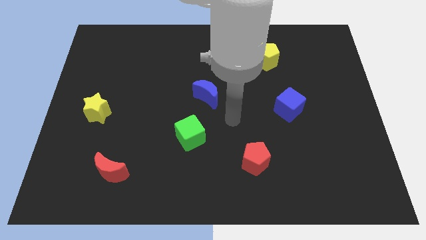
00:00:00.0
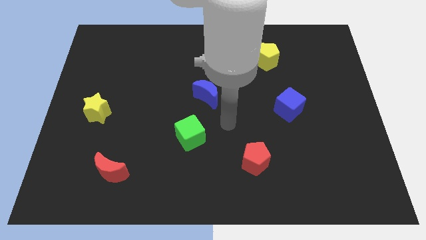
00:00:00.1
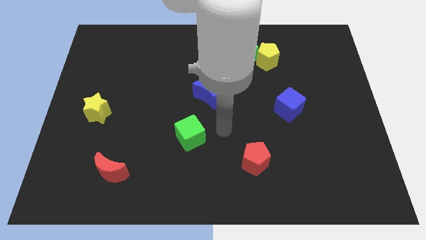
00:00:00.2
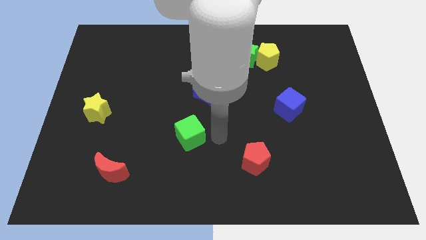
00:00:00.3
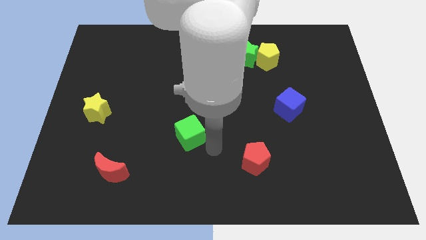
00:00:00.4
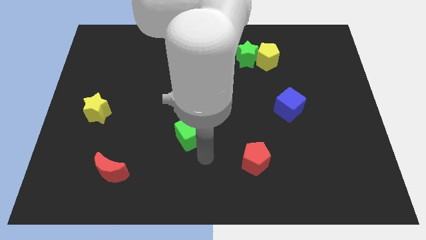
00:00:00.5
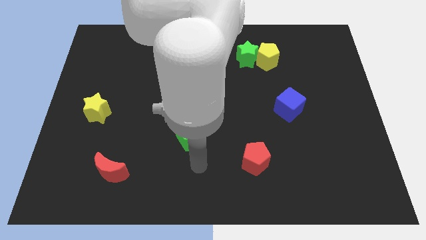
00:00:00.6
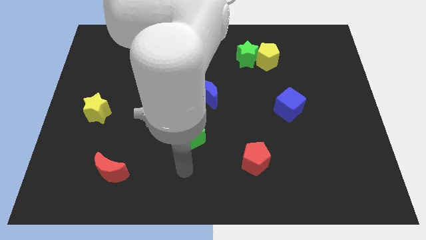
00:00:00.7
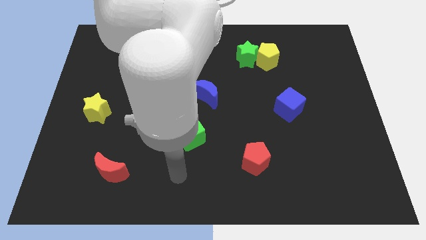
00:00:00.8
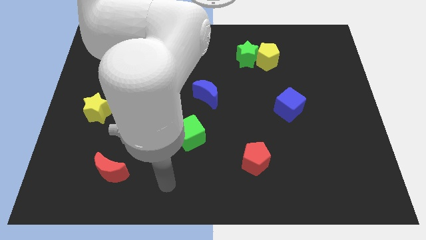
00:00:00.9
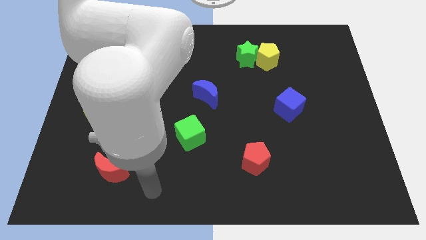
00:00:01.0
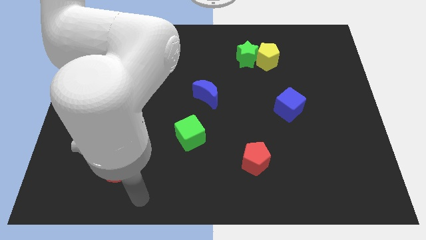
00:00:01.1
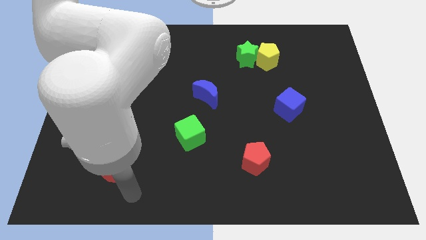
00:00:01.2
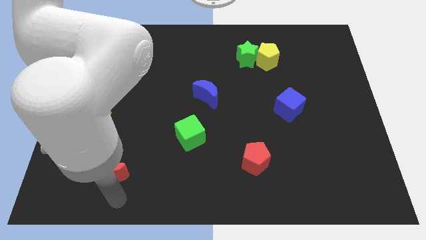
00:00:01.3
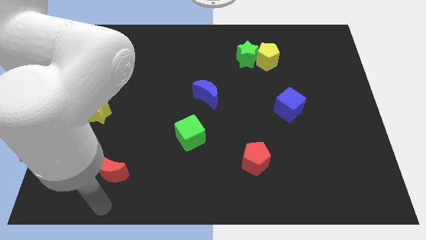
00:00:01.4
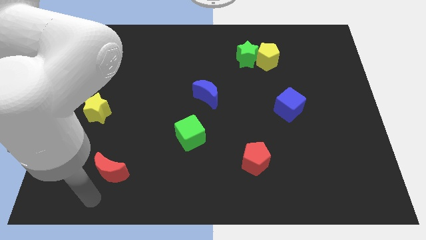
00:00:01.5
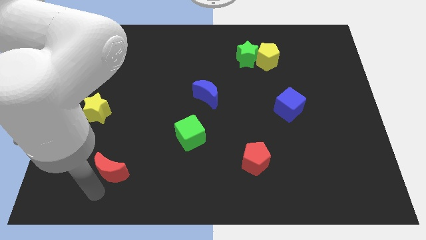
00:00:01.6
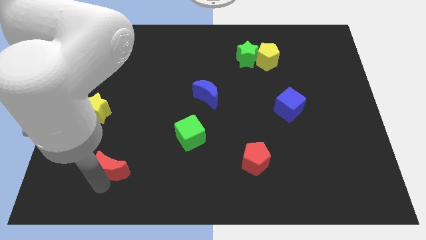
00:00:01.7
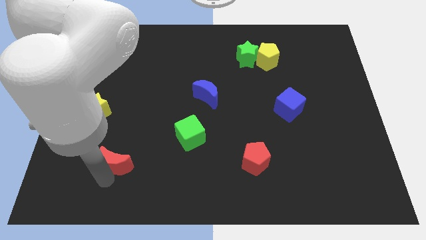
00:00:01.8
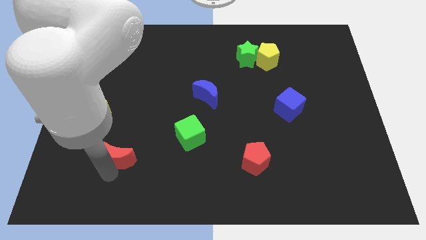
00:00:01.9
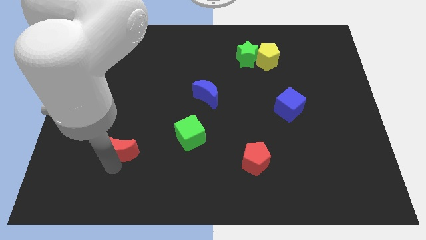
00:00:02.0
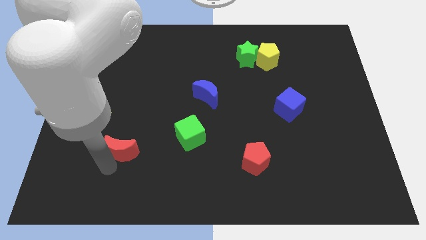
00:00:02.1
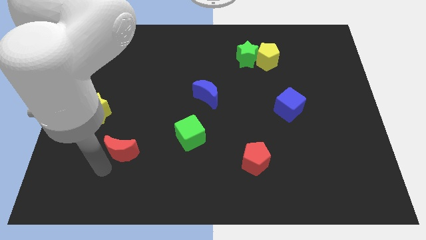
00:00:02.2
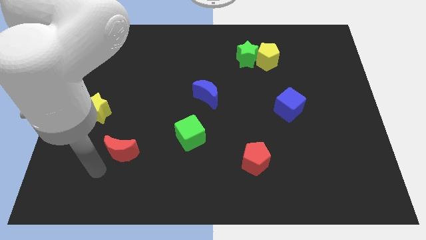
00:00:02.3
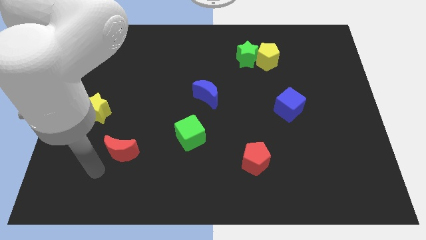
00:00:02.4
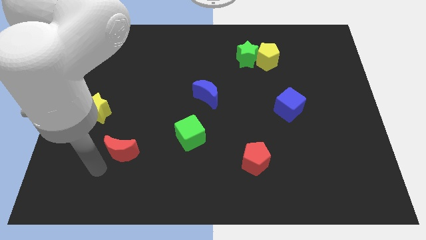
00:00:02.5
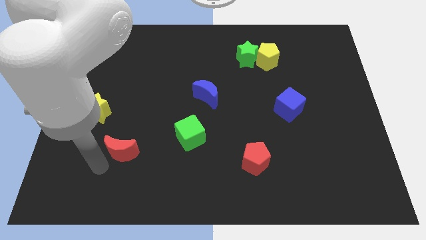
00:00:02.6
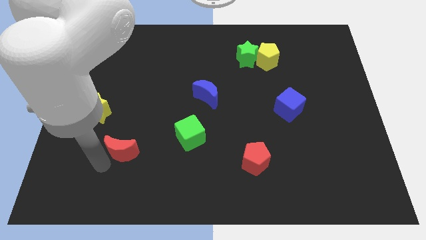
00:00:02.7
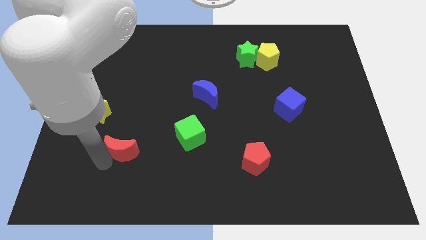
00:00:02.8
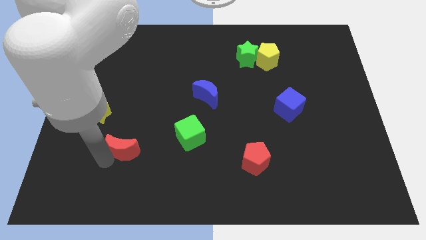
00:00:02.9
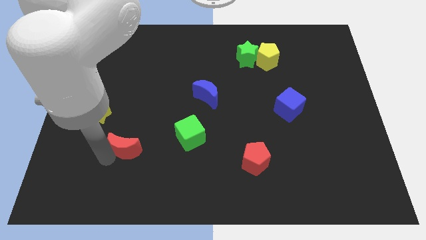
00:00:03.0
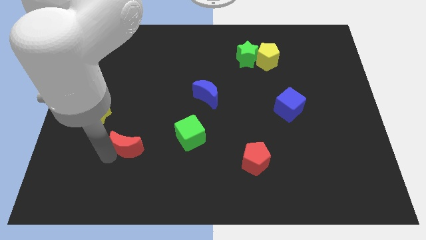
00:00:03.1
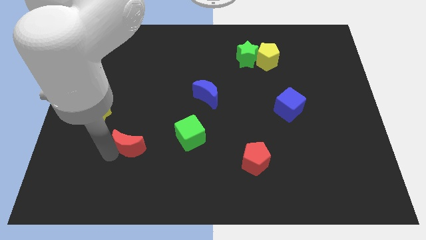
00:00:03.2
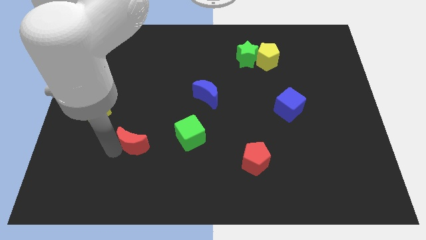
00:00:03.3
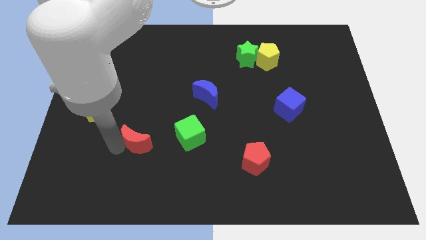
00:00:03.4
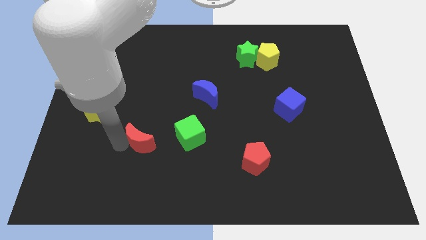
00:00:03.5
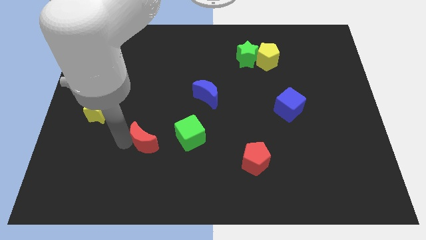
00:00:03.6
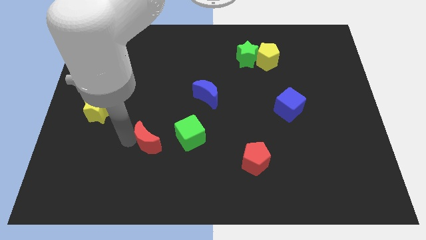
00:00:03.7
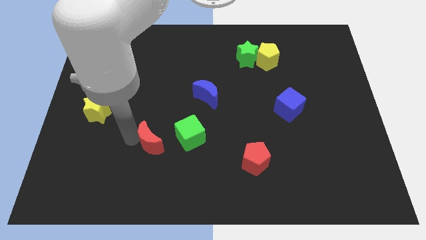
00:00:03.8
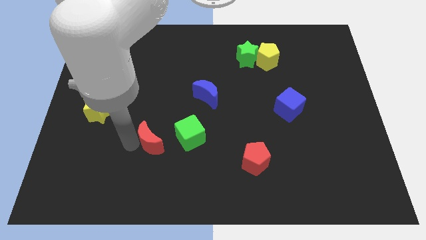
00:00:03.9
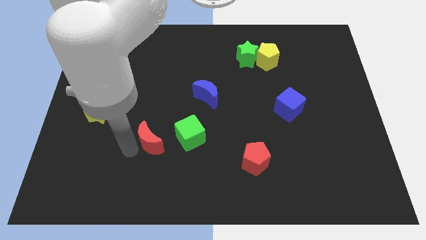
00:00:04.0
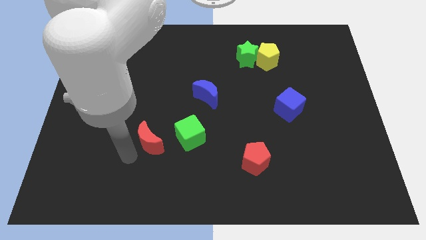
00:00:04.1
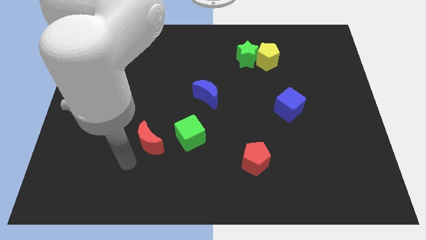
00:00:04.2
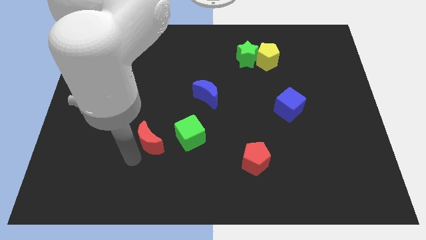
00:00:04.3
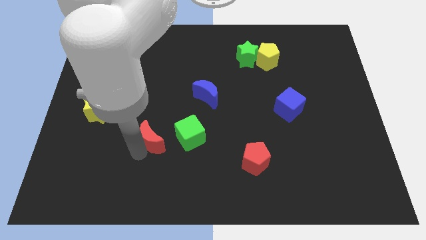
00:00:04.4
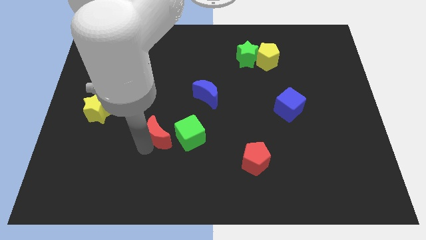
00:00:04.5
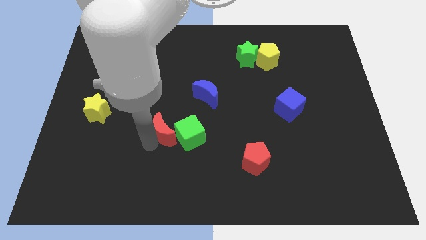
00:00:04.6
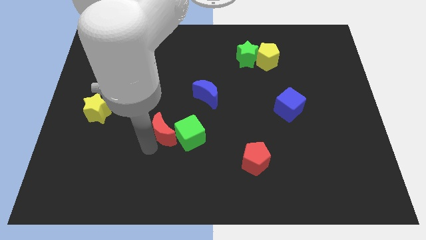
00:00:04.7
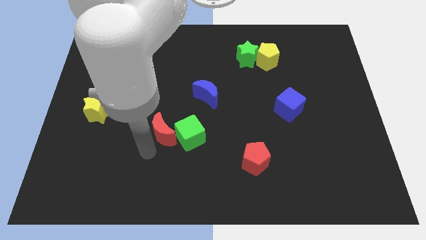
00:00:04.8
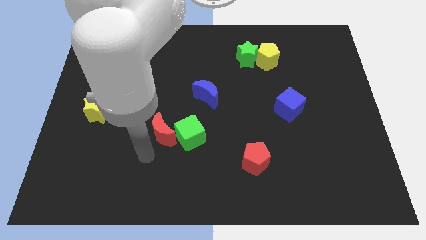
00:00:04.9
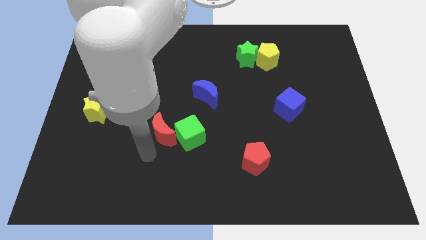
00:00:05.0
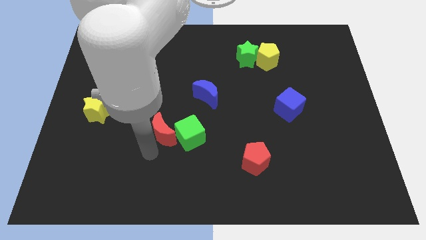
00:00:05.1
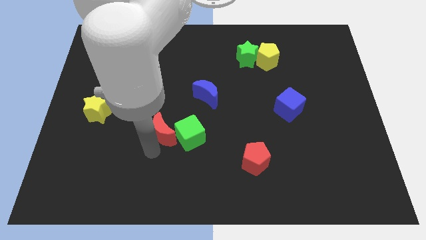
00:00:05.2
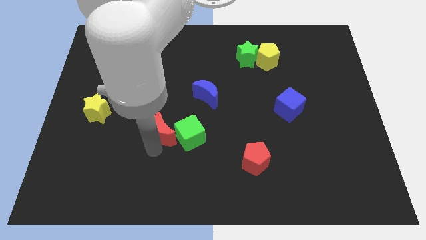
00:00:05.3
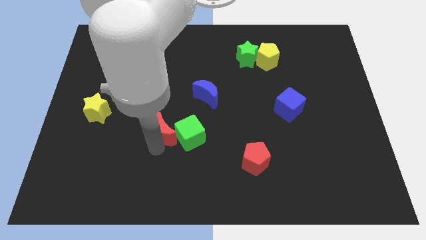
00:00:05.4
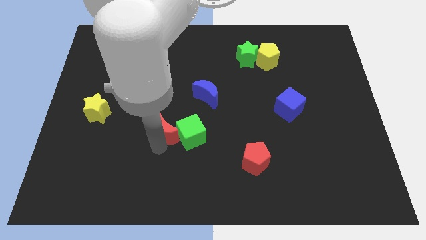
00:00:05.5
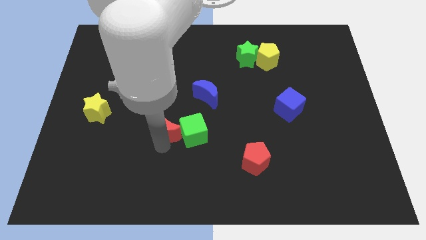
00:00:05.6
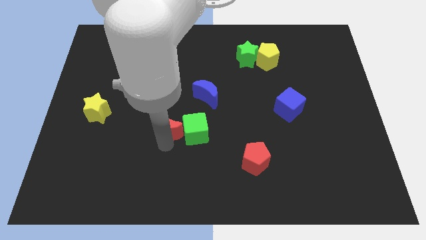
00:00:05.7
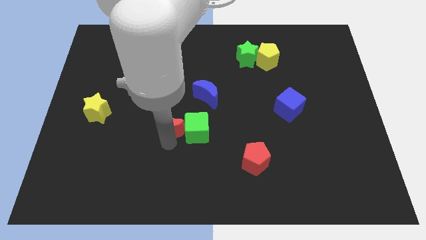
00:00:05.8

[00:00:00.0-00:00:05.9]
put the red moon to the bottom left of the blue moon
